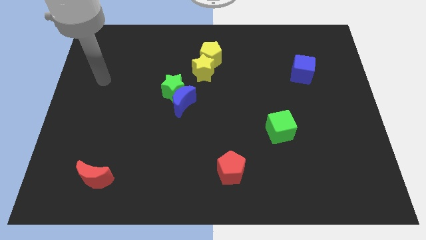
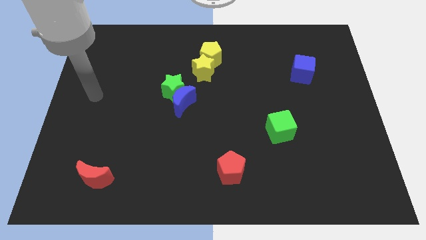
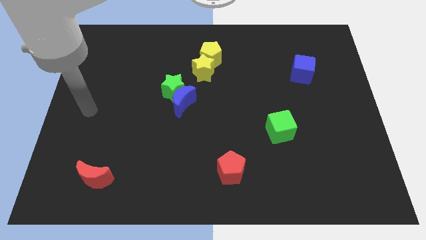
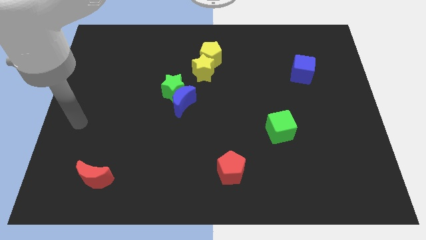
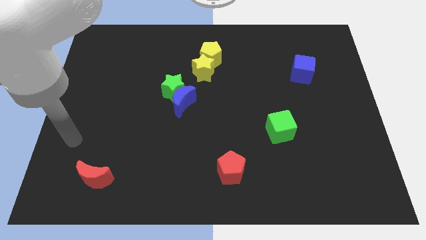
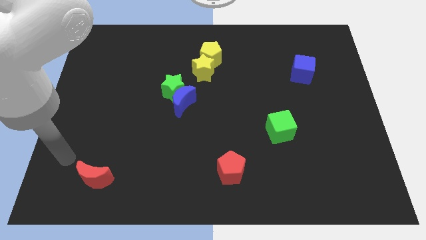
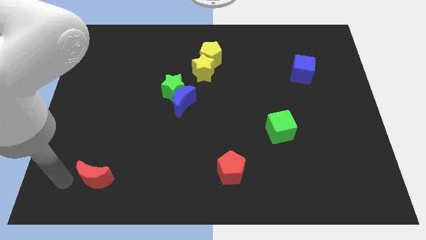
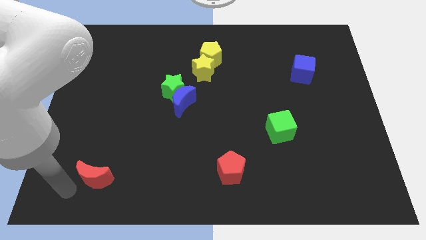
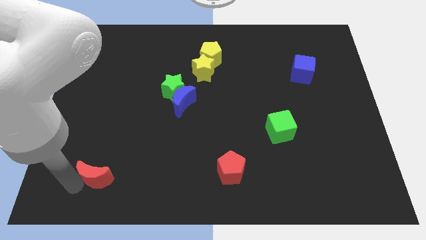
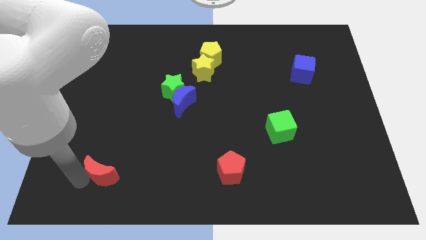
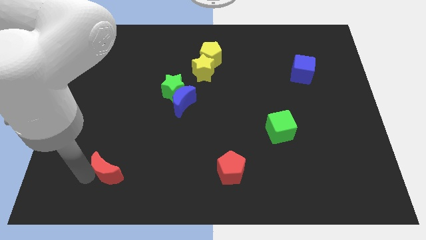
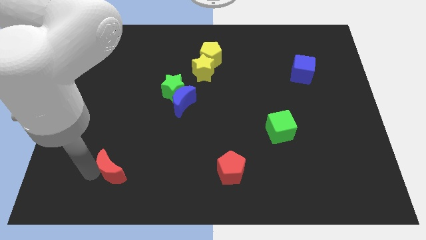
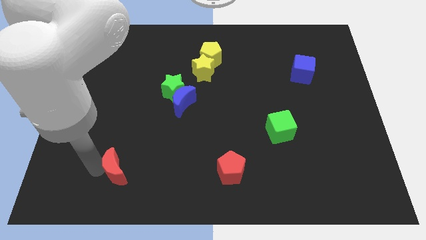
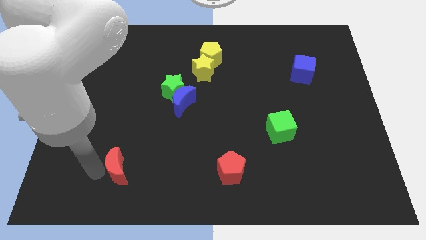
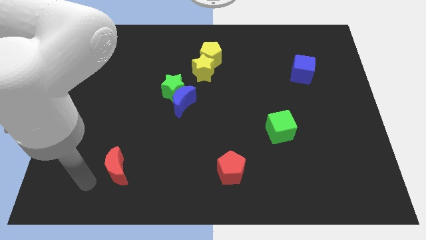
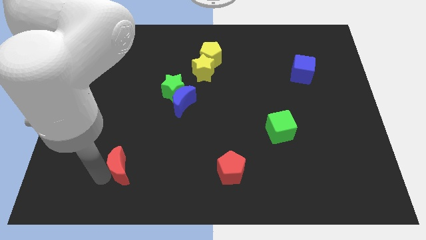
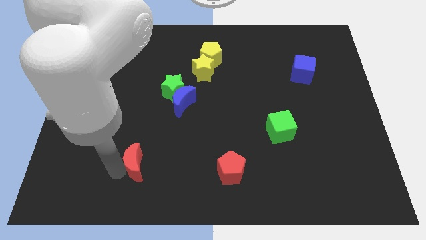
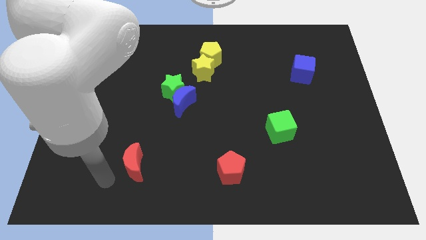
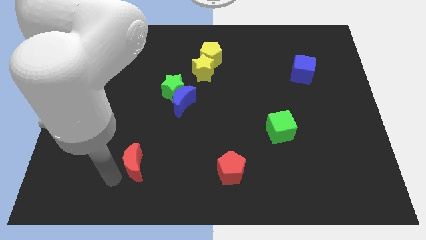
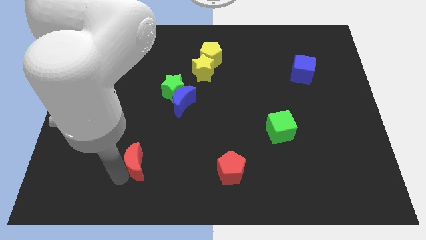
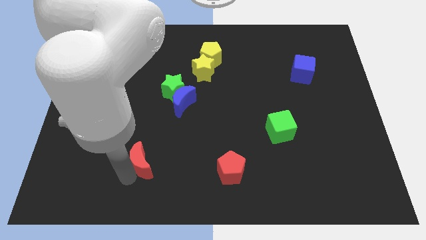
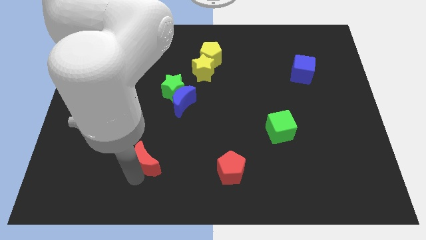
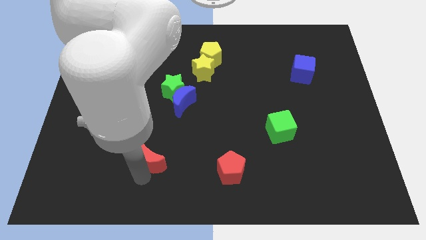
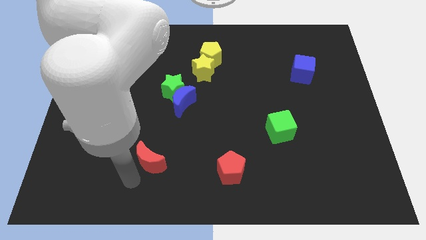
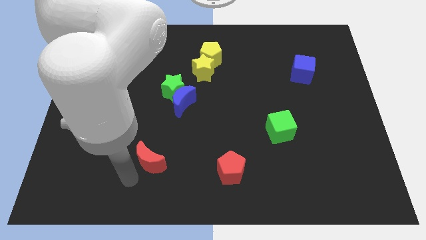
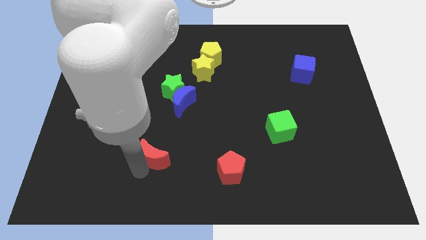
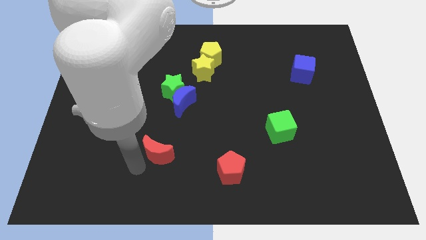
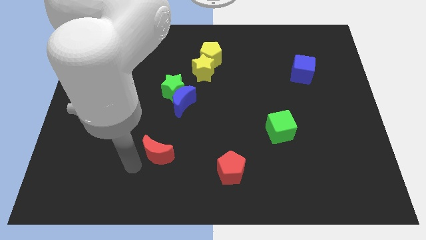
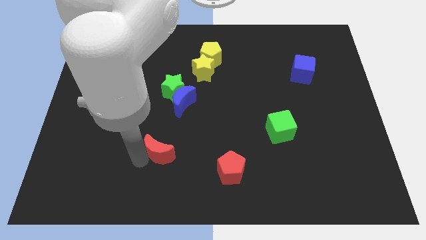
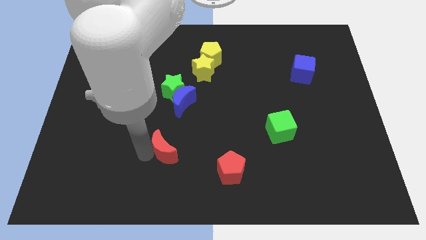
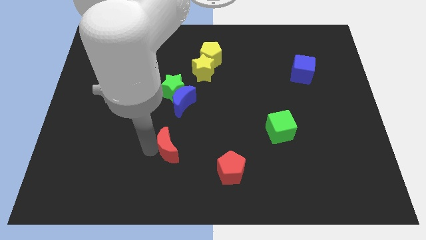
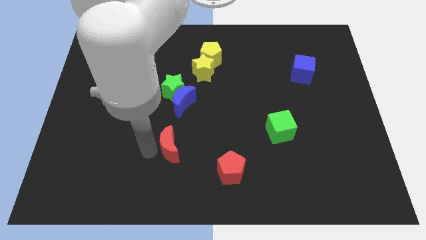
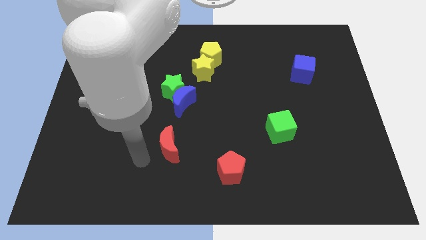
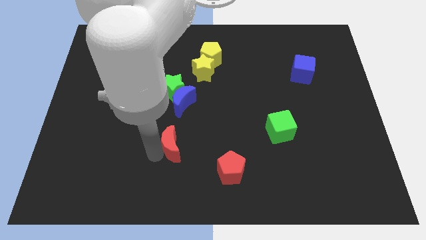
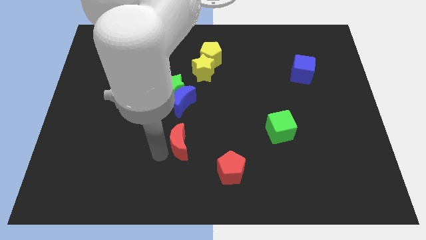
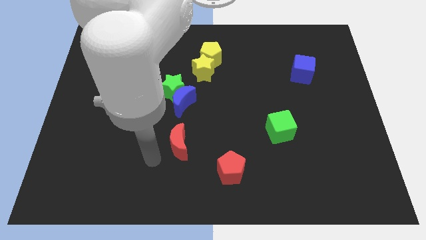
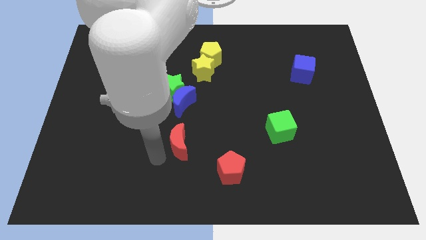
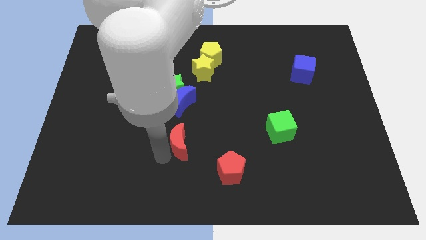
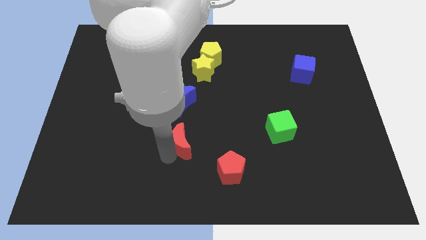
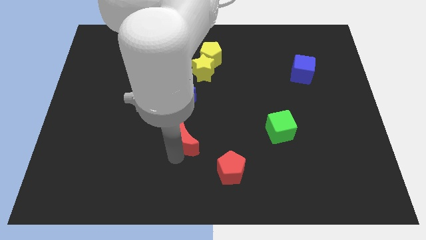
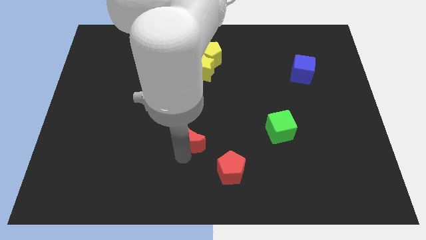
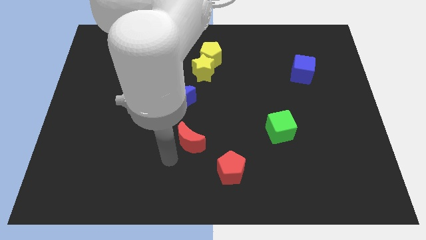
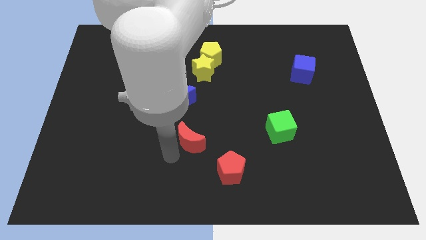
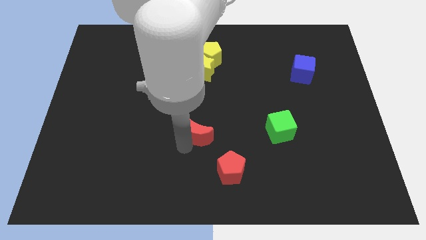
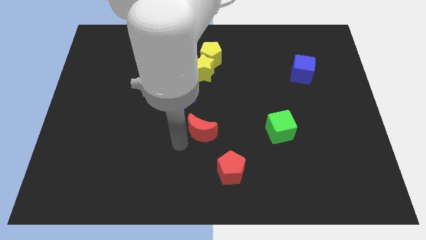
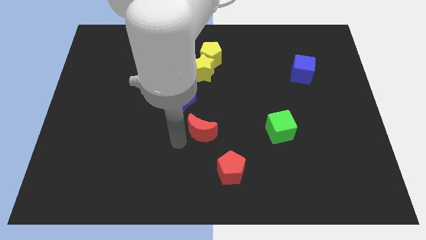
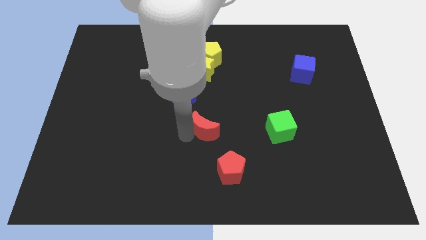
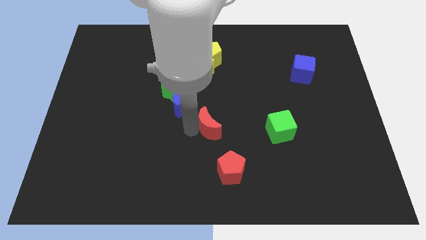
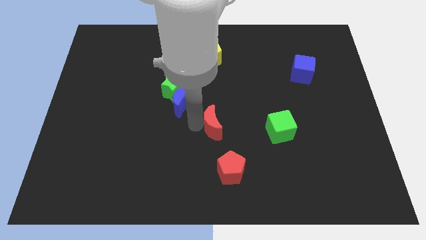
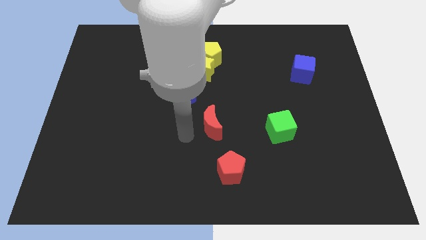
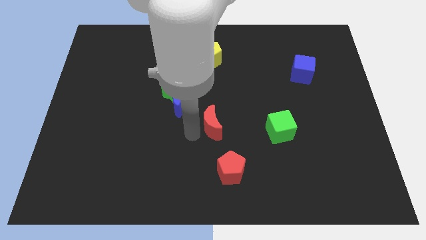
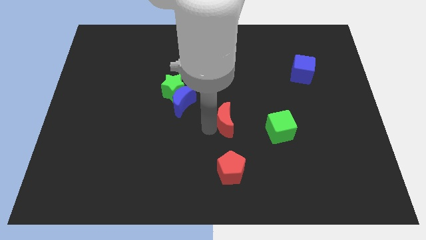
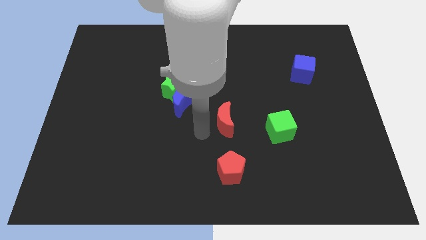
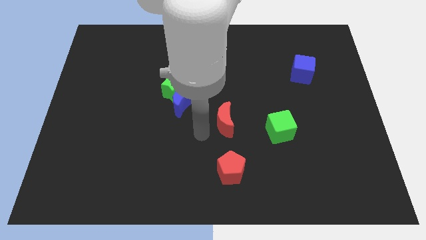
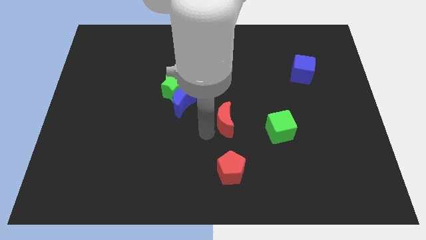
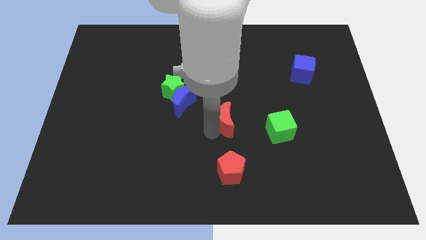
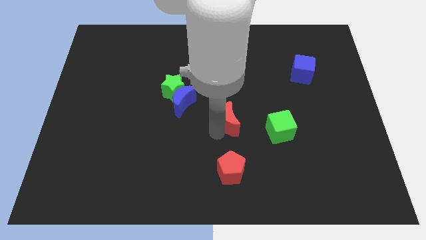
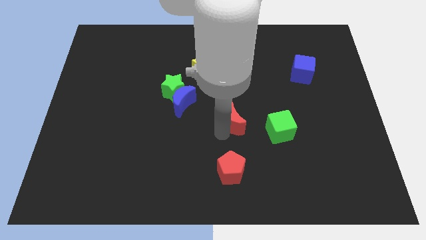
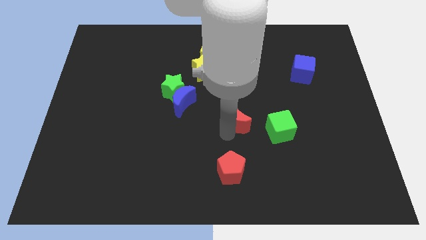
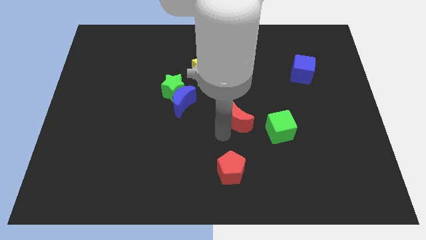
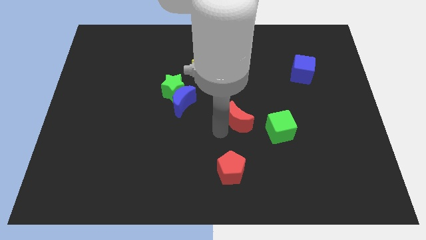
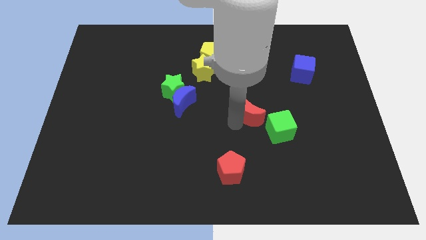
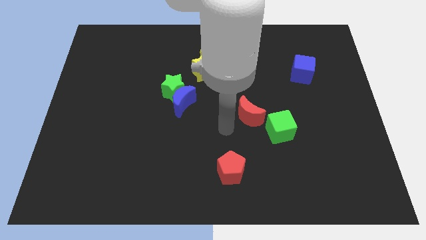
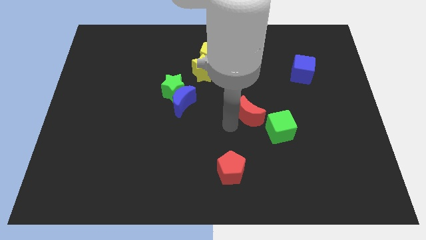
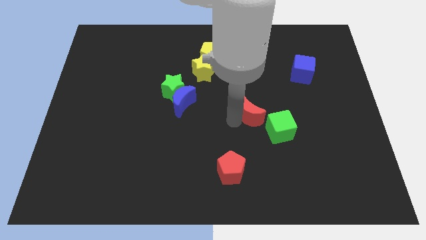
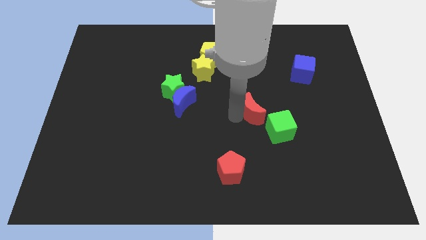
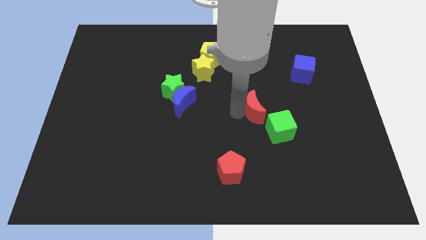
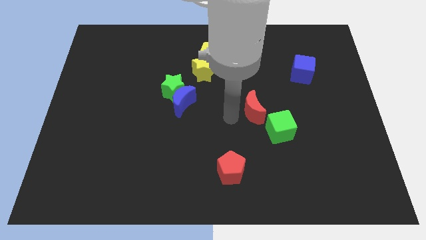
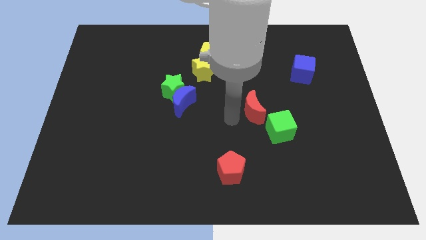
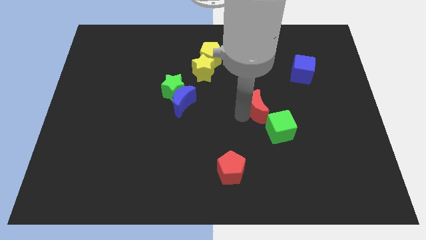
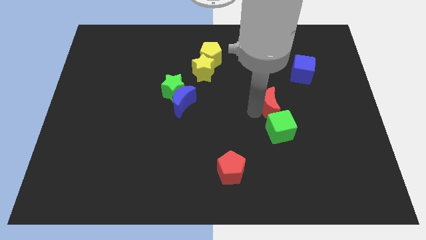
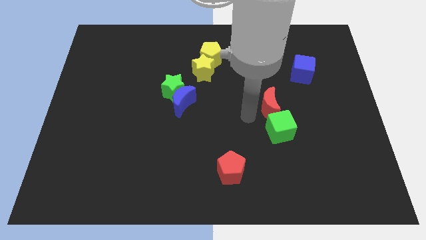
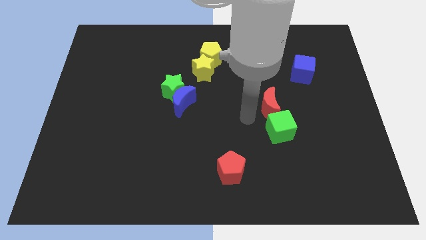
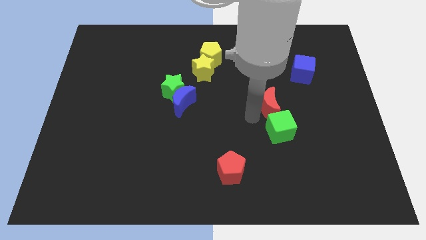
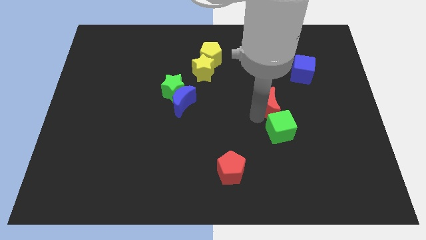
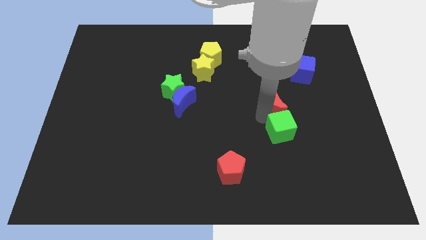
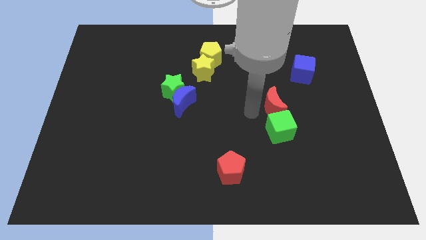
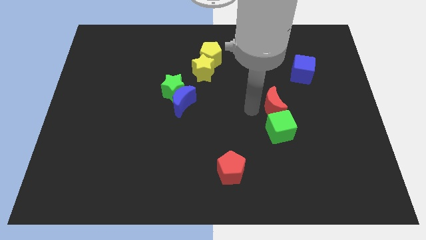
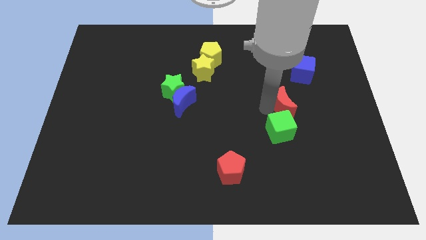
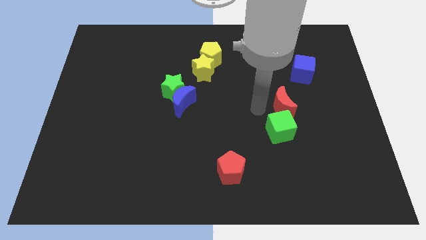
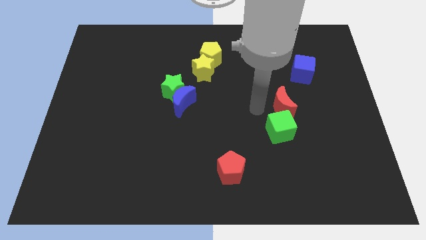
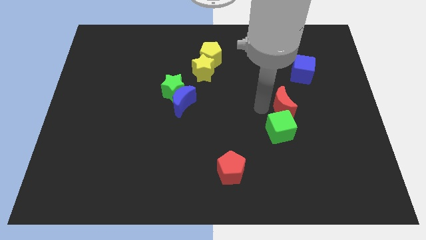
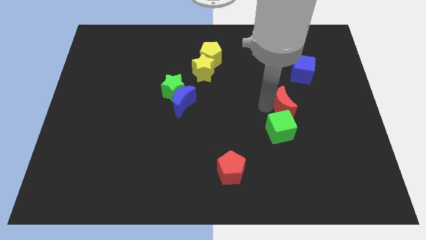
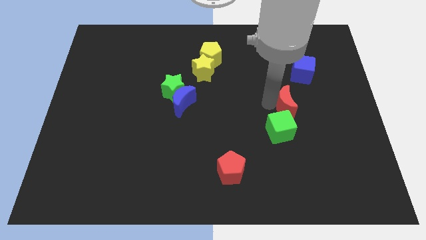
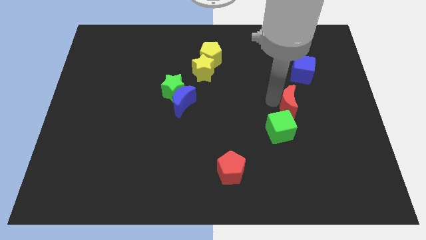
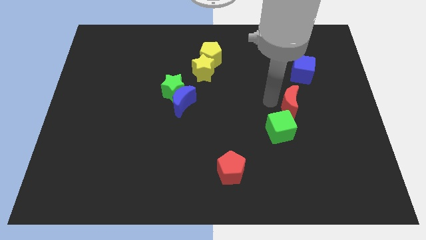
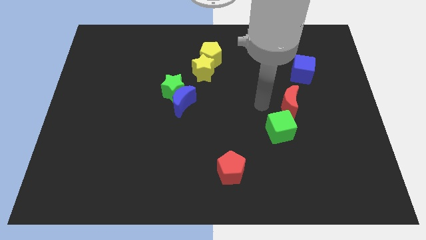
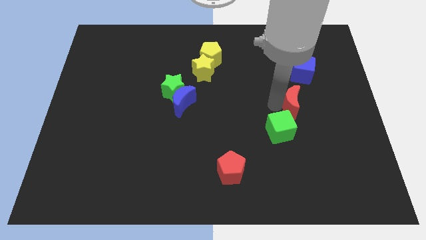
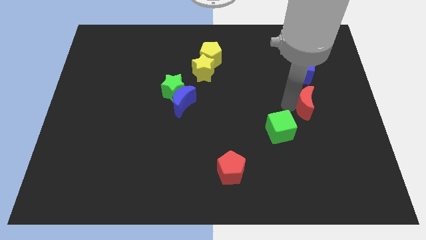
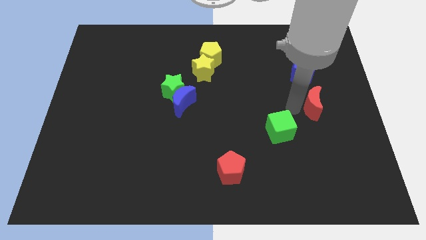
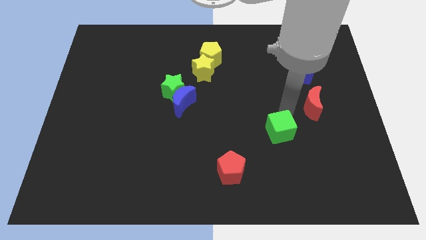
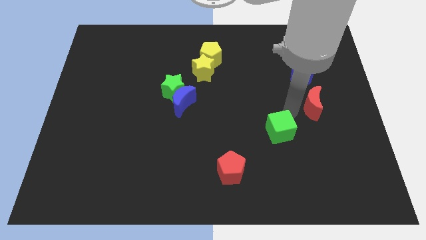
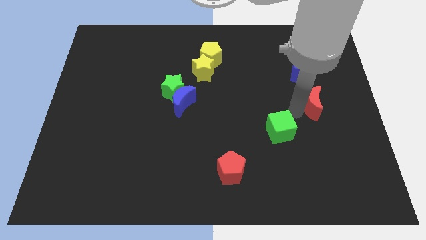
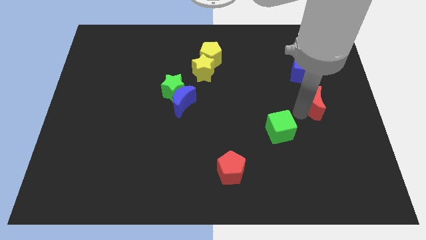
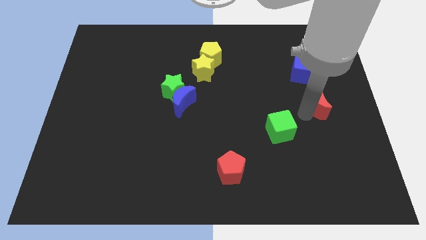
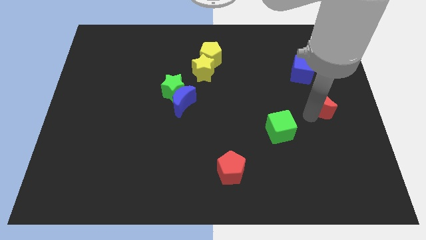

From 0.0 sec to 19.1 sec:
move the red moon to the center right
